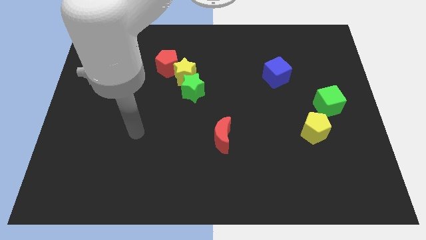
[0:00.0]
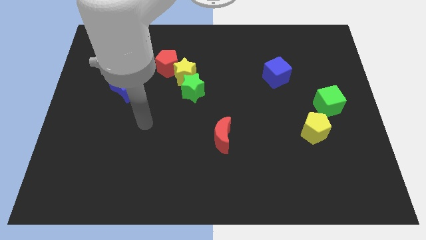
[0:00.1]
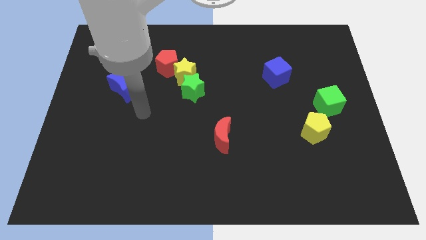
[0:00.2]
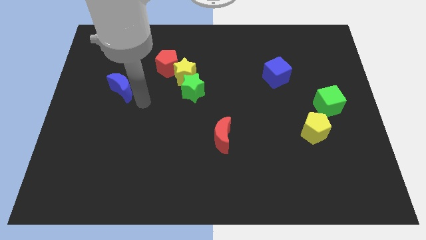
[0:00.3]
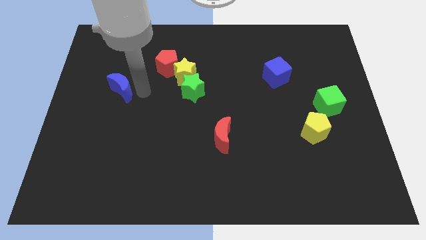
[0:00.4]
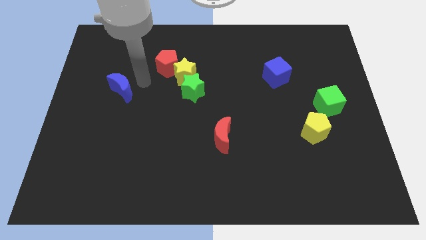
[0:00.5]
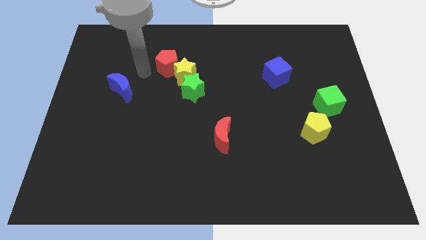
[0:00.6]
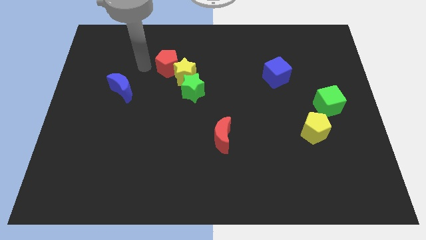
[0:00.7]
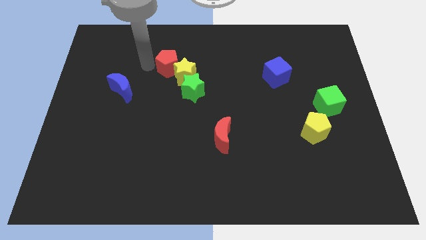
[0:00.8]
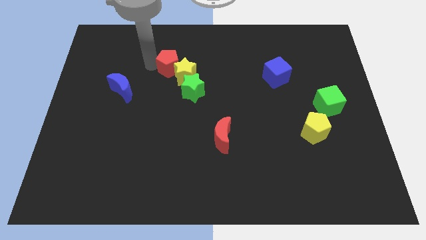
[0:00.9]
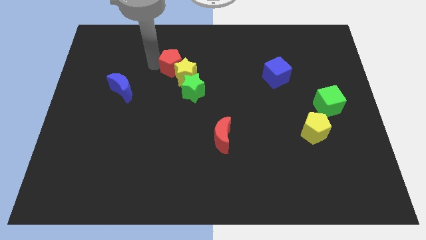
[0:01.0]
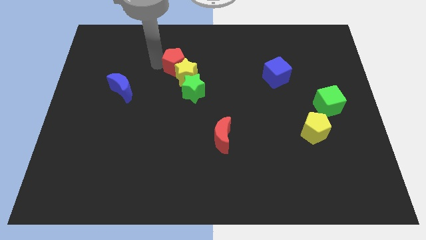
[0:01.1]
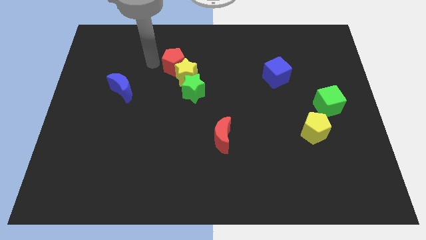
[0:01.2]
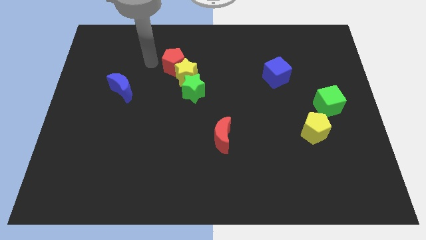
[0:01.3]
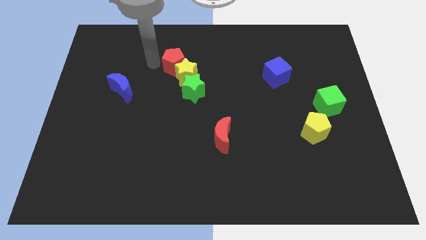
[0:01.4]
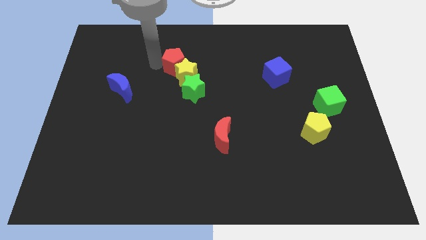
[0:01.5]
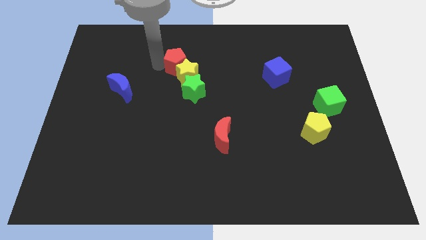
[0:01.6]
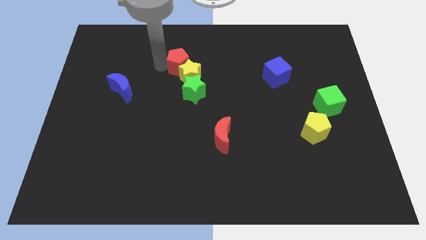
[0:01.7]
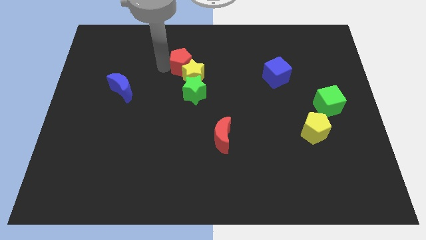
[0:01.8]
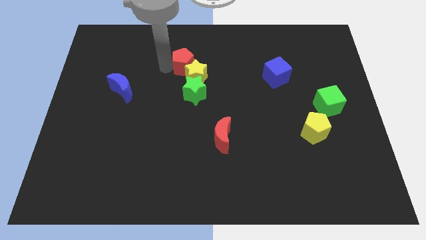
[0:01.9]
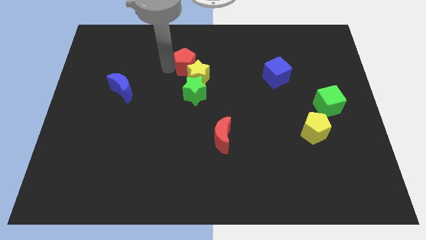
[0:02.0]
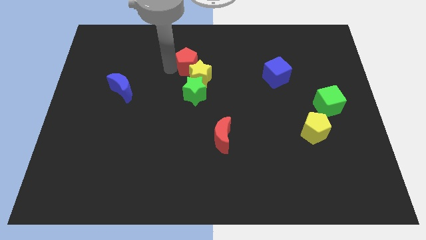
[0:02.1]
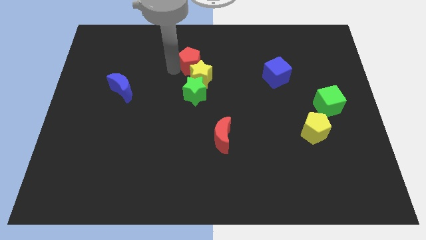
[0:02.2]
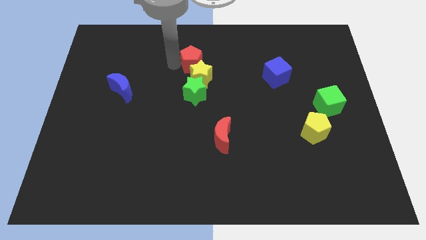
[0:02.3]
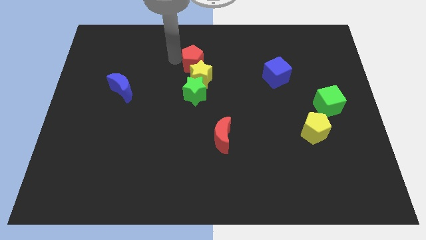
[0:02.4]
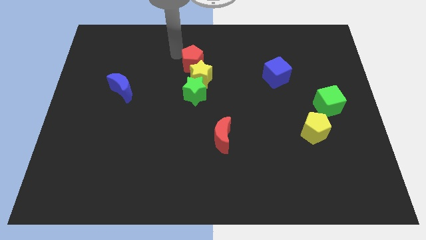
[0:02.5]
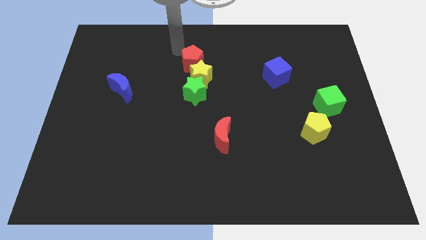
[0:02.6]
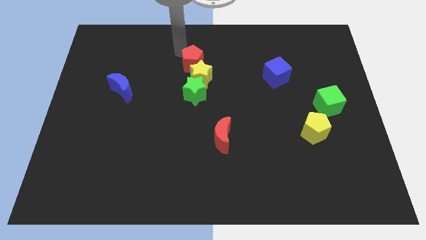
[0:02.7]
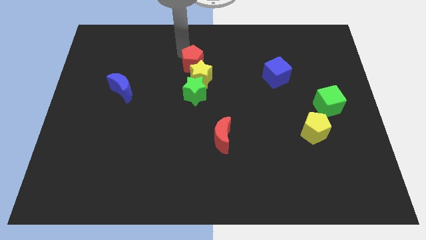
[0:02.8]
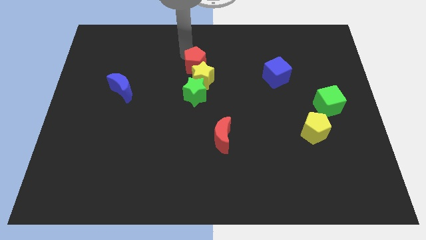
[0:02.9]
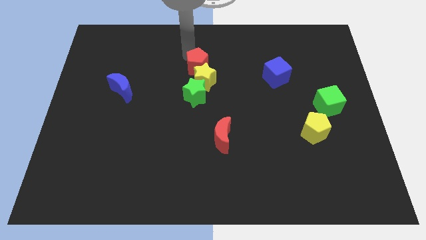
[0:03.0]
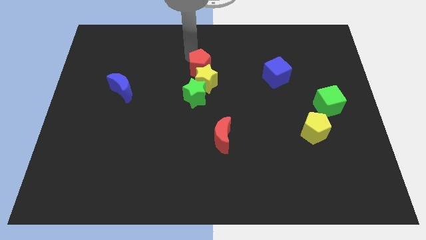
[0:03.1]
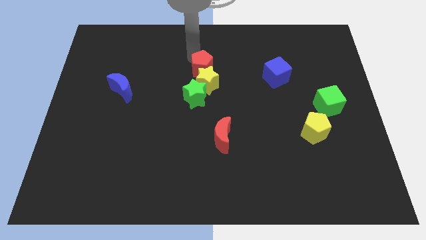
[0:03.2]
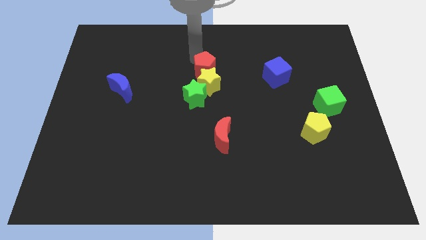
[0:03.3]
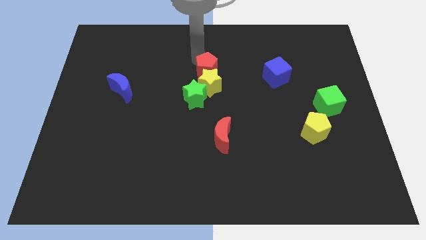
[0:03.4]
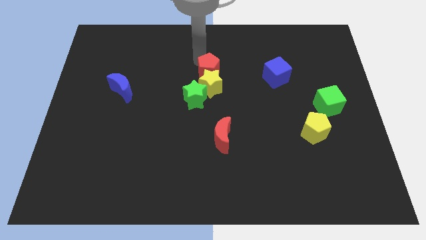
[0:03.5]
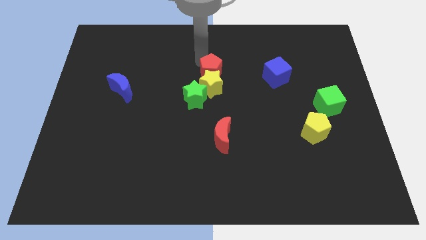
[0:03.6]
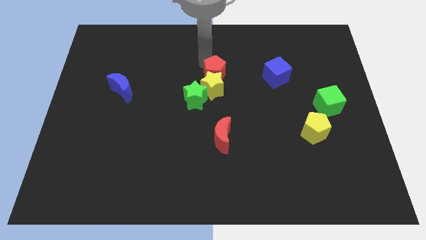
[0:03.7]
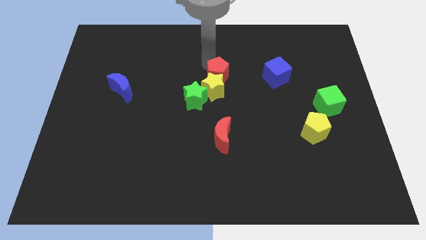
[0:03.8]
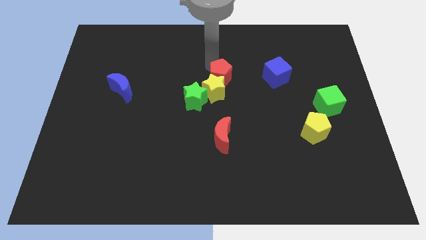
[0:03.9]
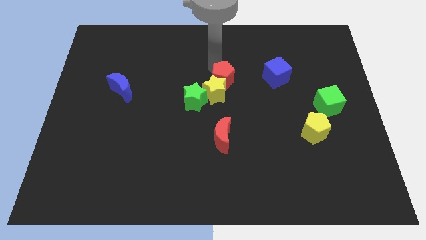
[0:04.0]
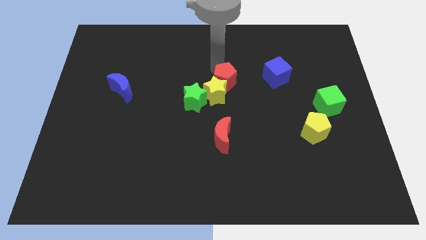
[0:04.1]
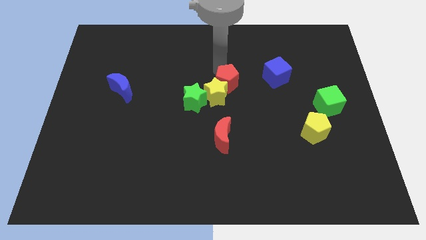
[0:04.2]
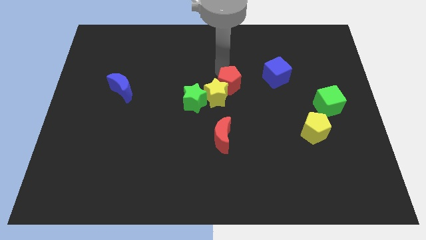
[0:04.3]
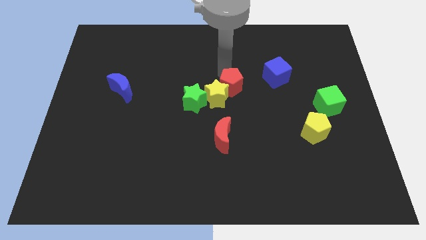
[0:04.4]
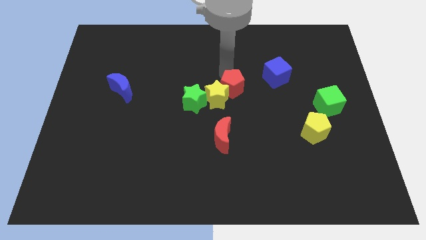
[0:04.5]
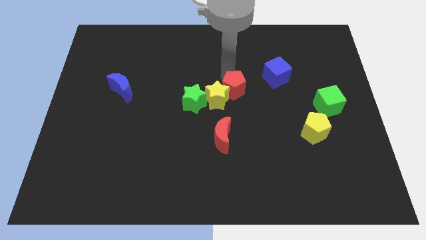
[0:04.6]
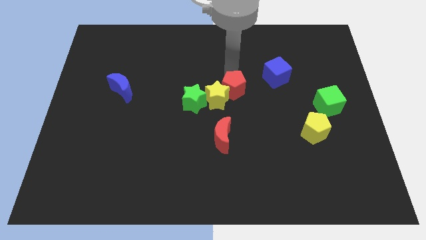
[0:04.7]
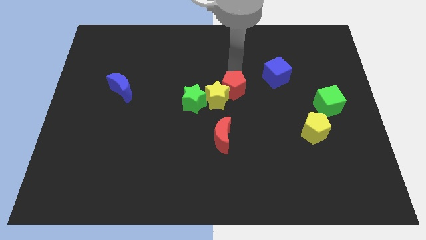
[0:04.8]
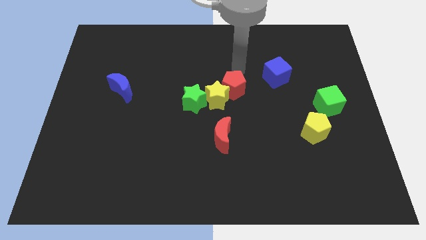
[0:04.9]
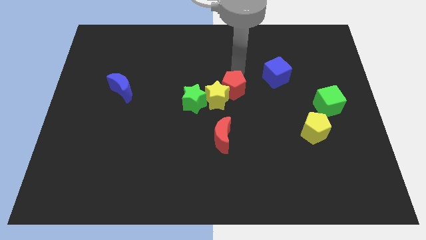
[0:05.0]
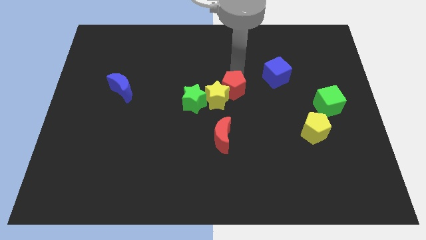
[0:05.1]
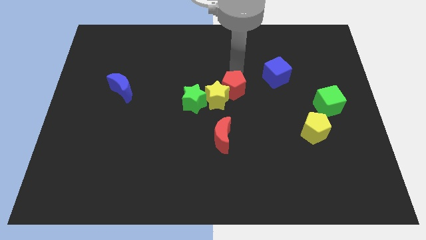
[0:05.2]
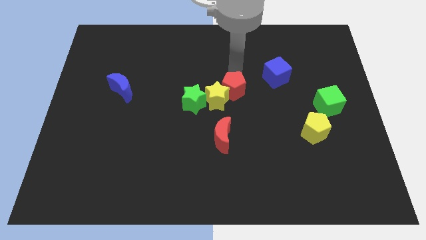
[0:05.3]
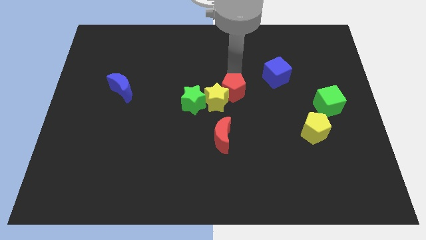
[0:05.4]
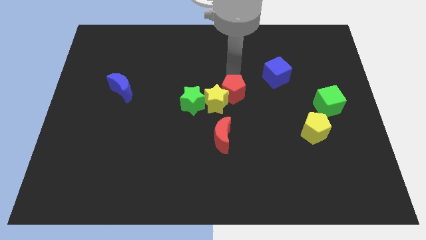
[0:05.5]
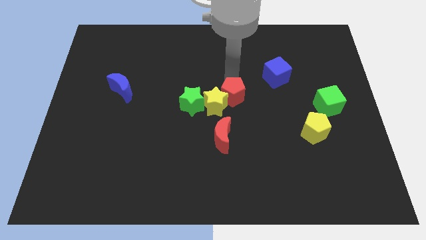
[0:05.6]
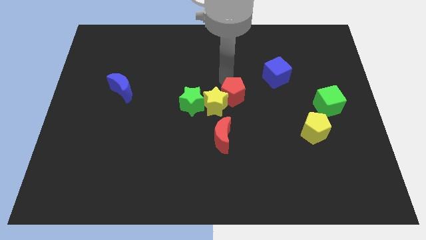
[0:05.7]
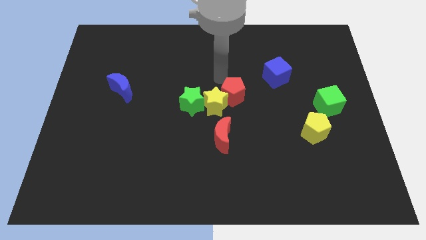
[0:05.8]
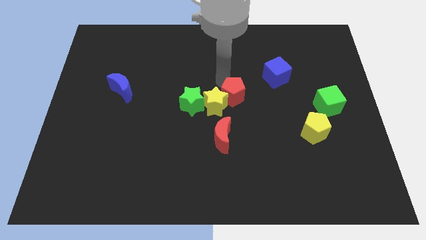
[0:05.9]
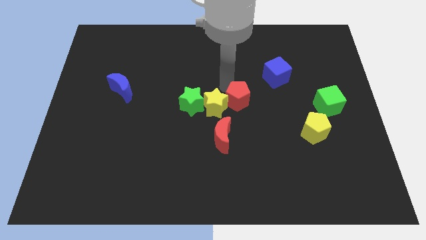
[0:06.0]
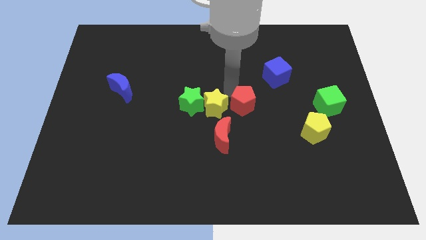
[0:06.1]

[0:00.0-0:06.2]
push the red pentagon down and right diagonally

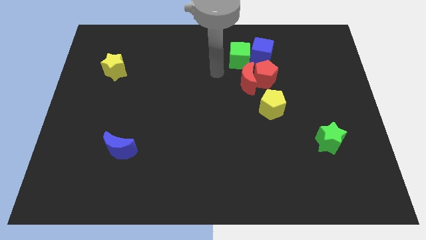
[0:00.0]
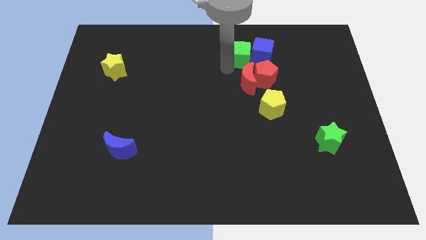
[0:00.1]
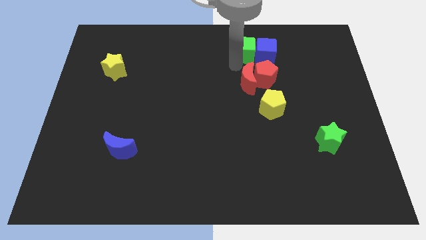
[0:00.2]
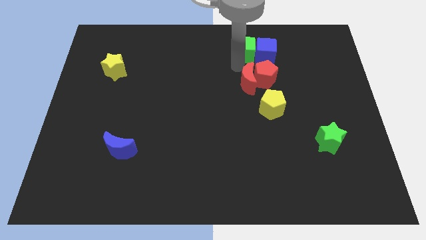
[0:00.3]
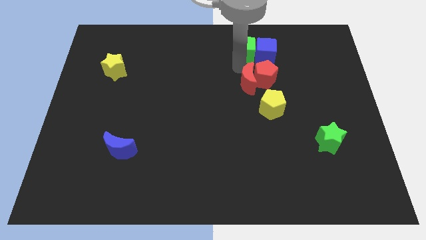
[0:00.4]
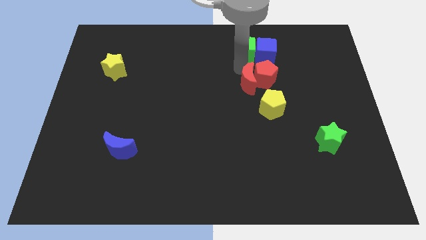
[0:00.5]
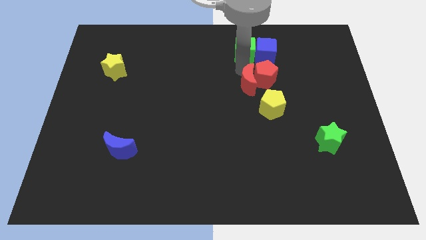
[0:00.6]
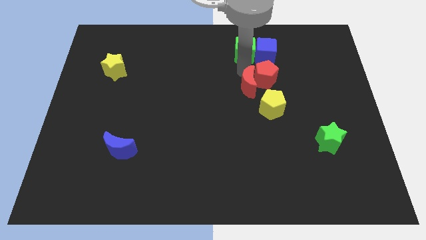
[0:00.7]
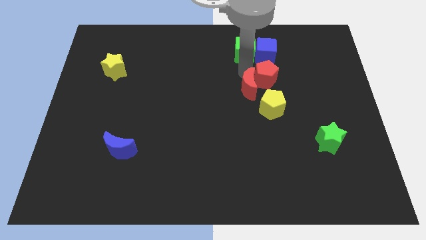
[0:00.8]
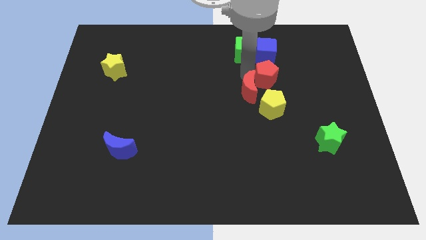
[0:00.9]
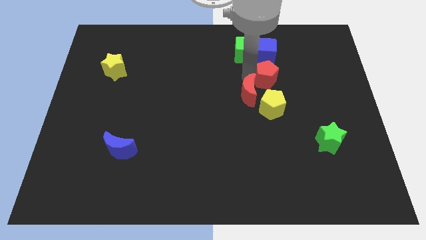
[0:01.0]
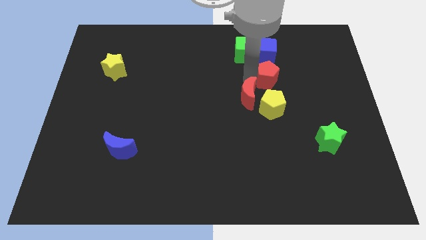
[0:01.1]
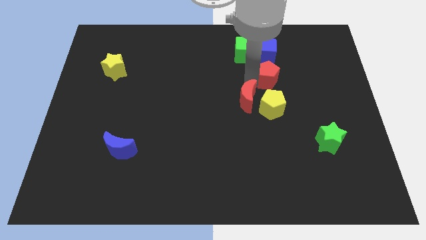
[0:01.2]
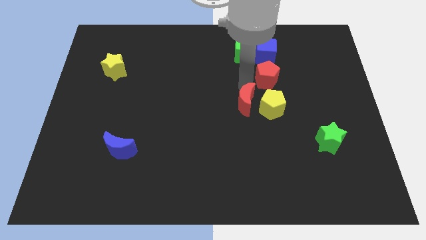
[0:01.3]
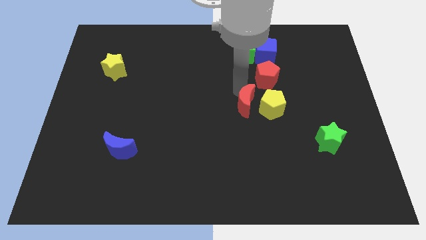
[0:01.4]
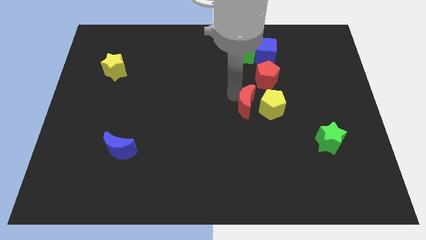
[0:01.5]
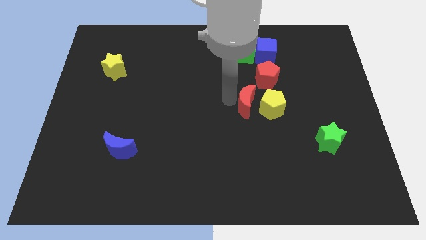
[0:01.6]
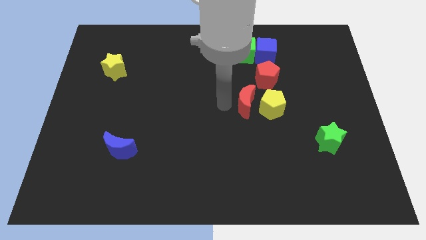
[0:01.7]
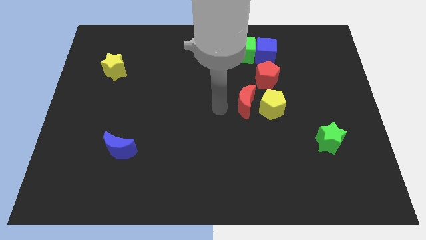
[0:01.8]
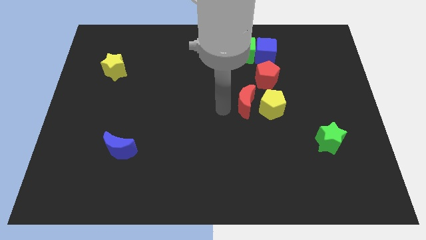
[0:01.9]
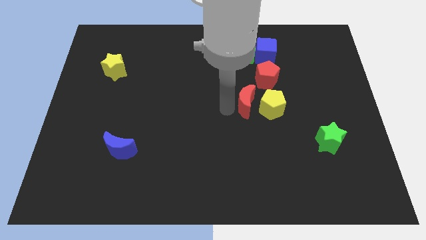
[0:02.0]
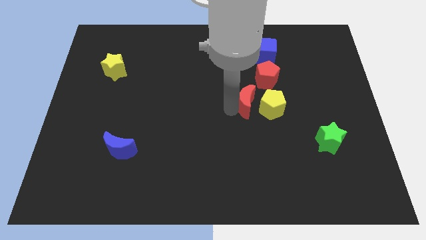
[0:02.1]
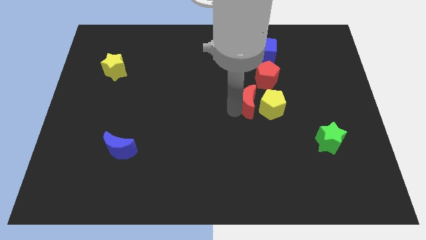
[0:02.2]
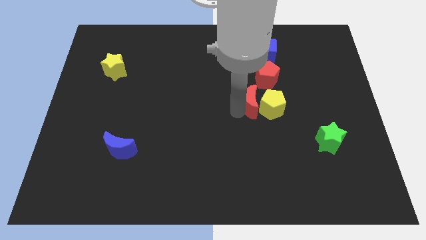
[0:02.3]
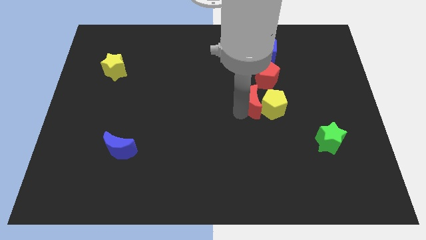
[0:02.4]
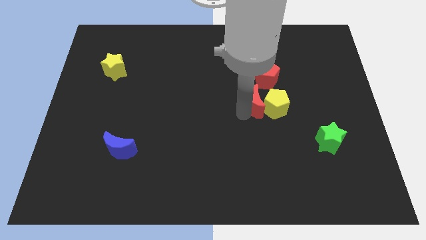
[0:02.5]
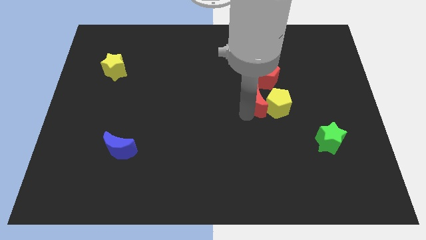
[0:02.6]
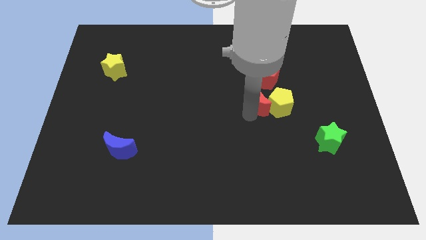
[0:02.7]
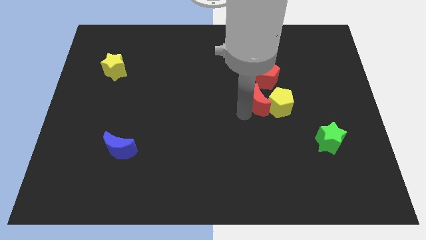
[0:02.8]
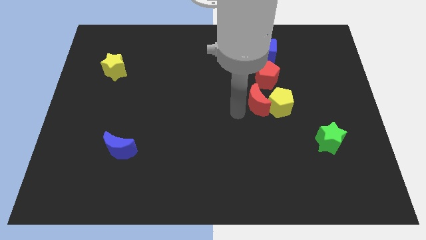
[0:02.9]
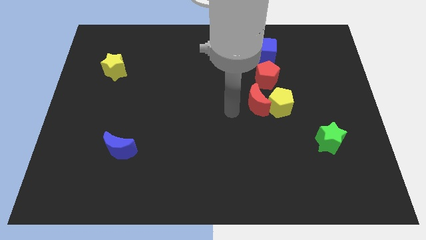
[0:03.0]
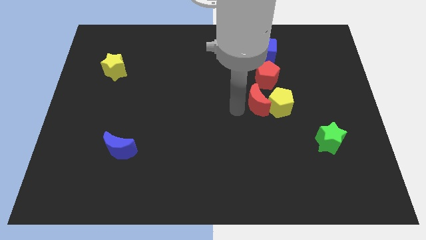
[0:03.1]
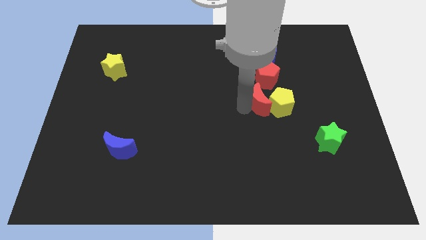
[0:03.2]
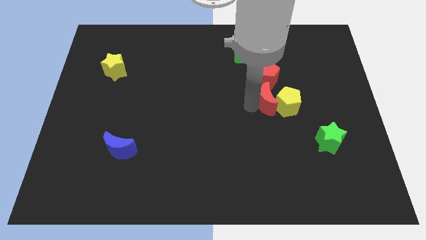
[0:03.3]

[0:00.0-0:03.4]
slightly move the red moon downwards and to the right diagonally
